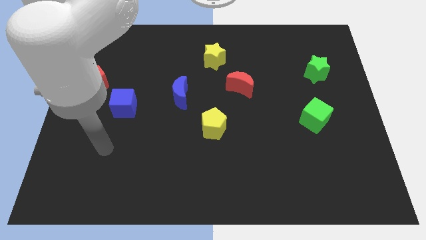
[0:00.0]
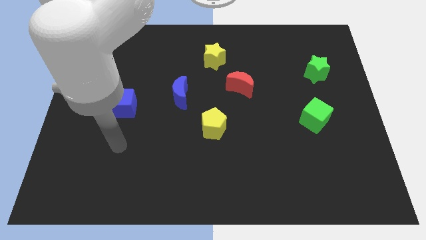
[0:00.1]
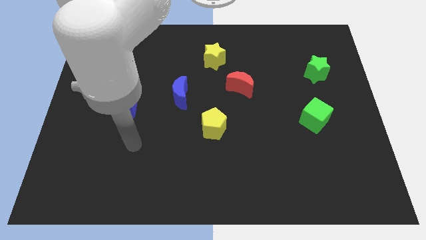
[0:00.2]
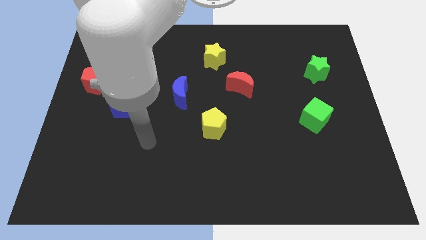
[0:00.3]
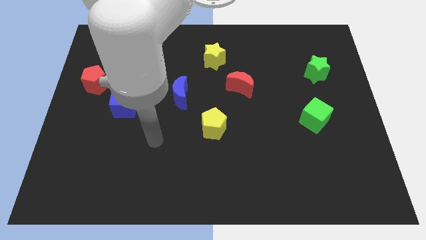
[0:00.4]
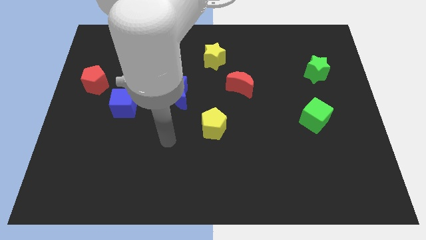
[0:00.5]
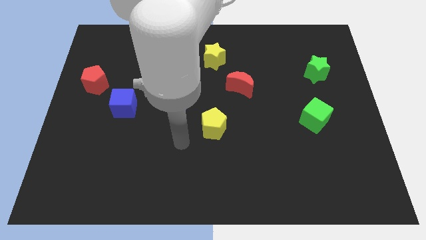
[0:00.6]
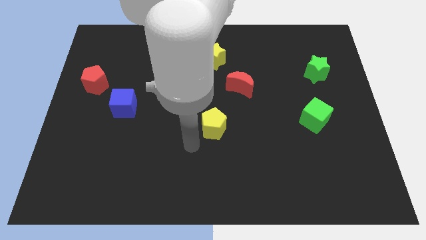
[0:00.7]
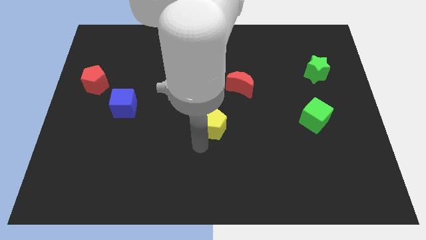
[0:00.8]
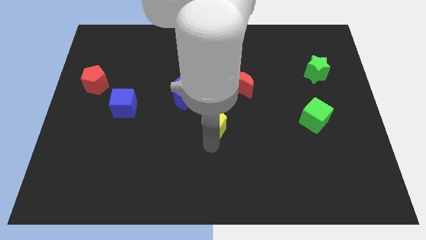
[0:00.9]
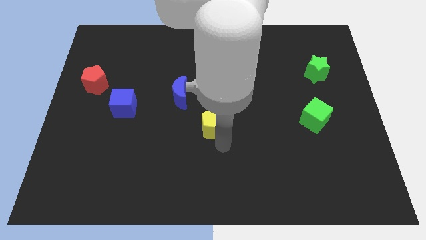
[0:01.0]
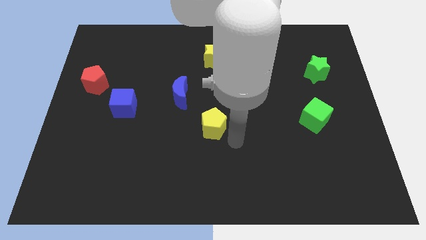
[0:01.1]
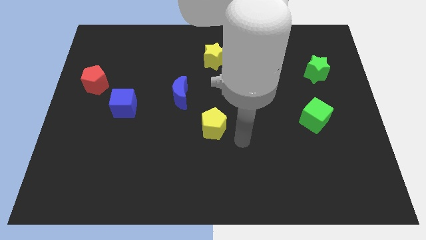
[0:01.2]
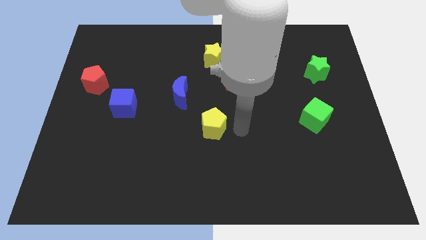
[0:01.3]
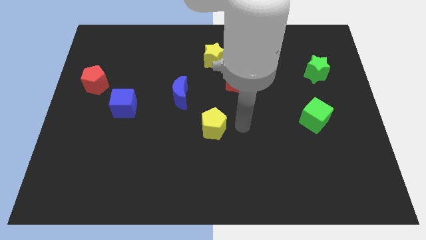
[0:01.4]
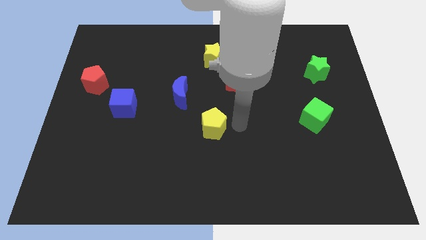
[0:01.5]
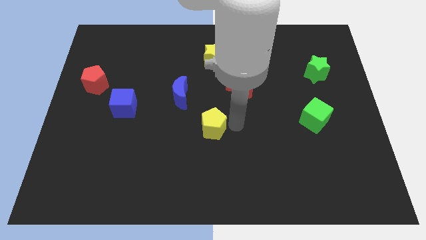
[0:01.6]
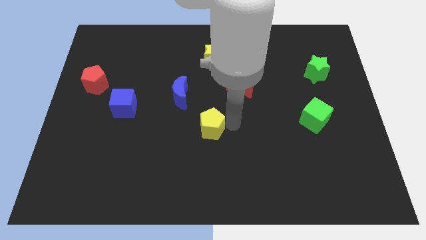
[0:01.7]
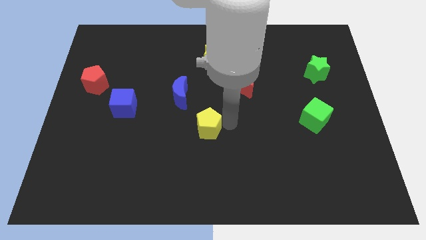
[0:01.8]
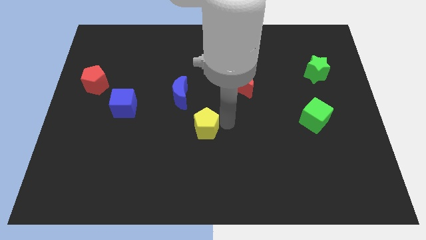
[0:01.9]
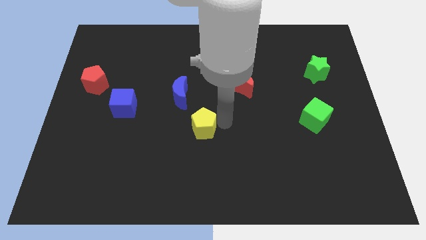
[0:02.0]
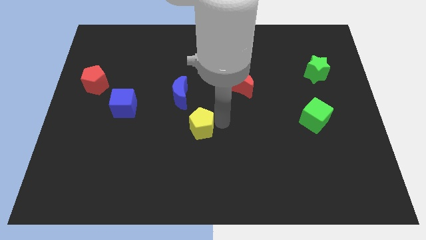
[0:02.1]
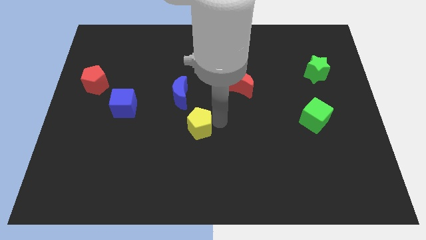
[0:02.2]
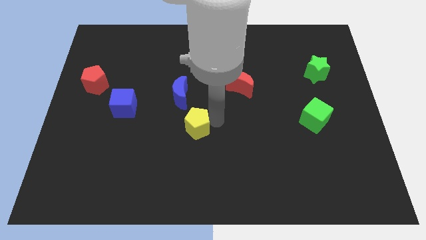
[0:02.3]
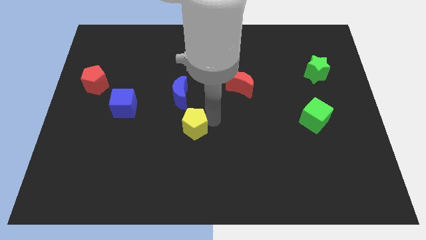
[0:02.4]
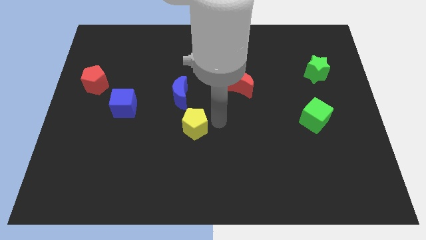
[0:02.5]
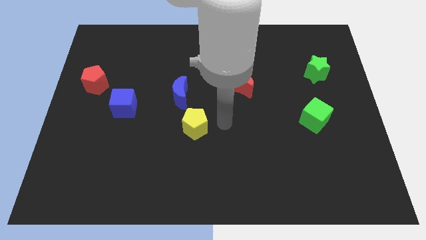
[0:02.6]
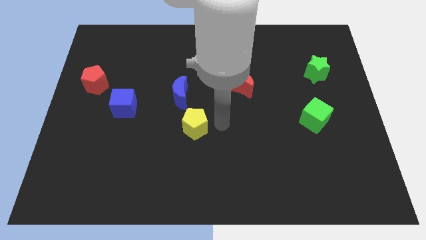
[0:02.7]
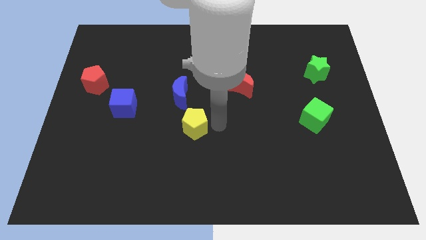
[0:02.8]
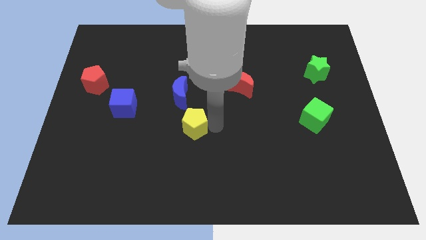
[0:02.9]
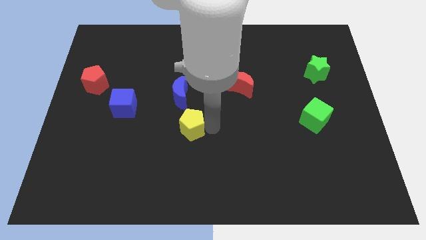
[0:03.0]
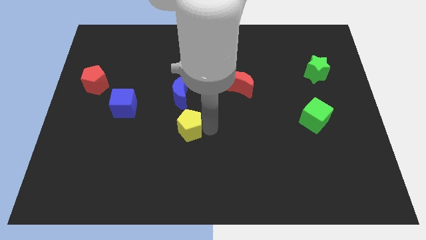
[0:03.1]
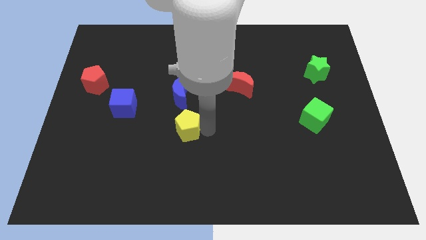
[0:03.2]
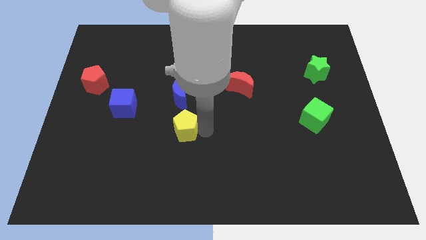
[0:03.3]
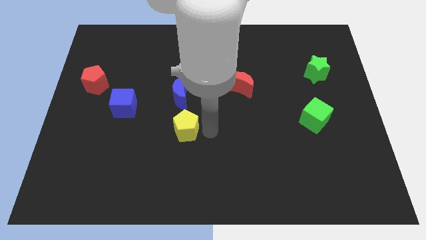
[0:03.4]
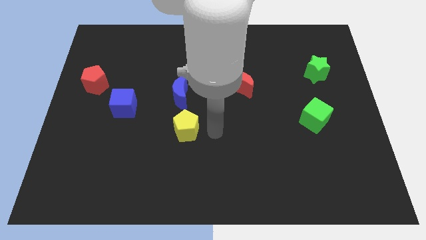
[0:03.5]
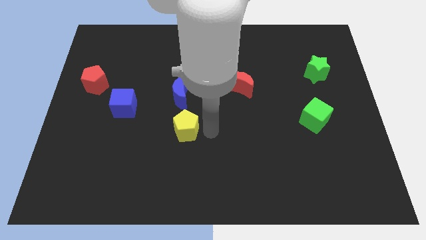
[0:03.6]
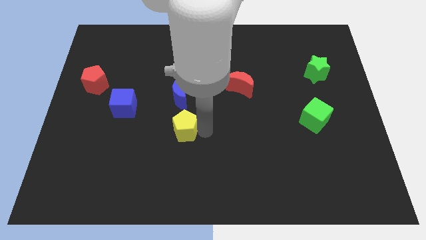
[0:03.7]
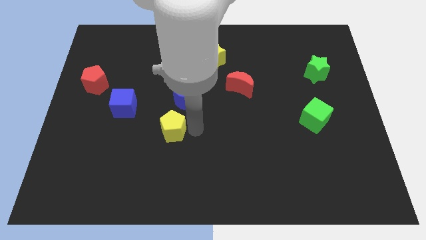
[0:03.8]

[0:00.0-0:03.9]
slide the yellow pentagon to the left somewhat

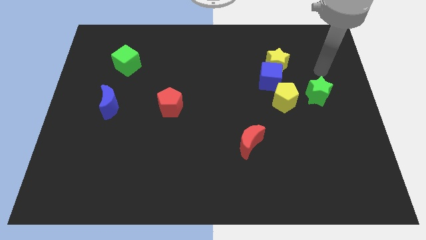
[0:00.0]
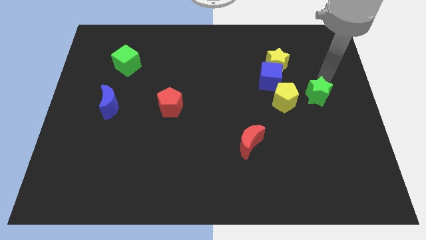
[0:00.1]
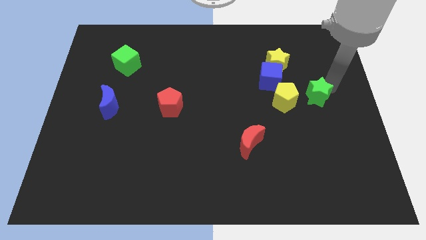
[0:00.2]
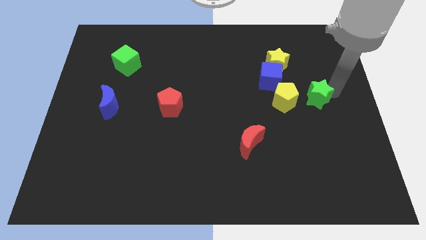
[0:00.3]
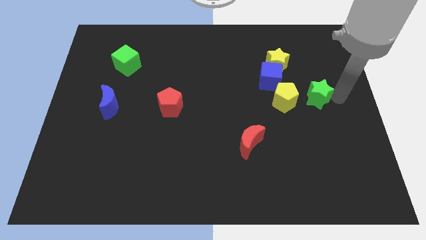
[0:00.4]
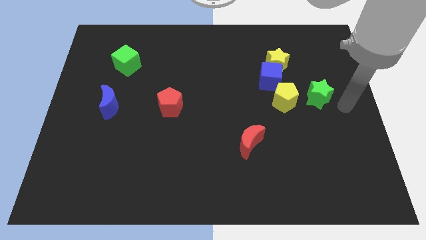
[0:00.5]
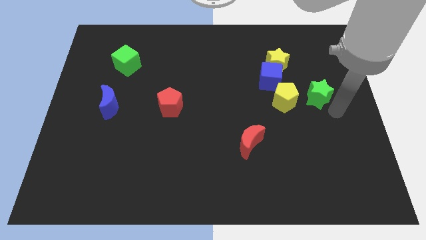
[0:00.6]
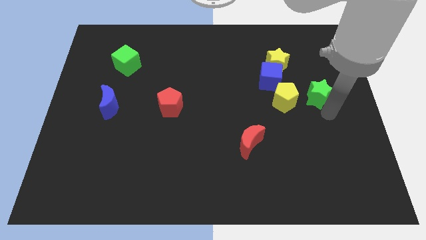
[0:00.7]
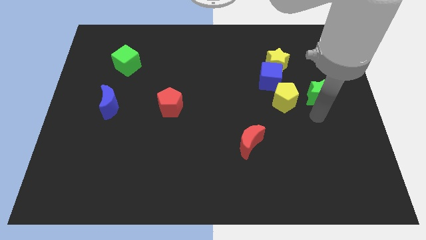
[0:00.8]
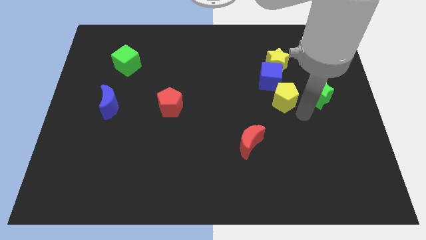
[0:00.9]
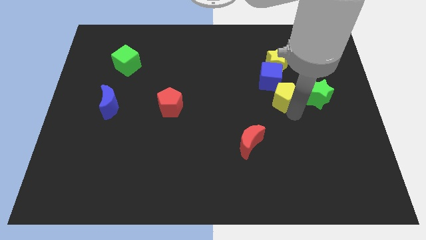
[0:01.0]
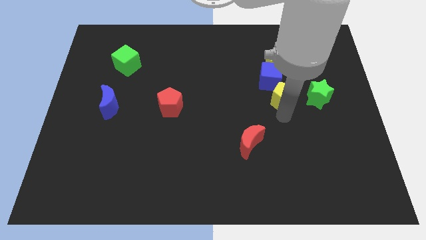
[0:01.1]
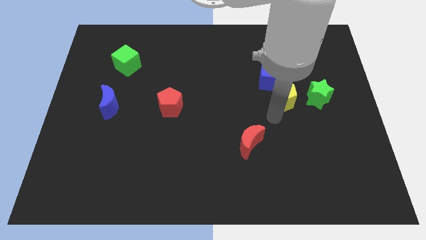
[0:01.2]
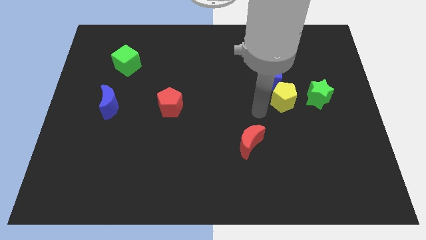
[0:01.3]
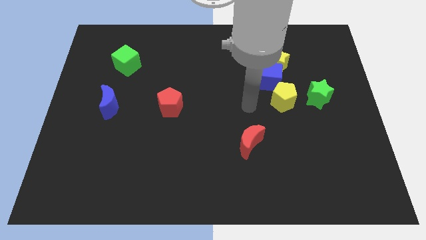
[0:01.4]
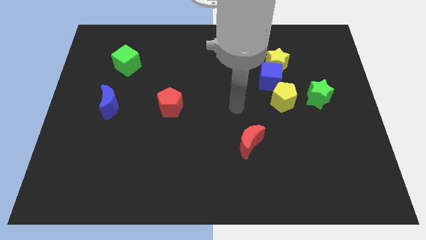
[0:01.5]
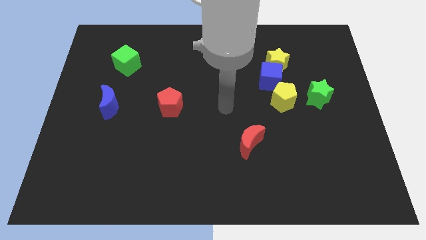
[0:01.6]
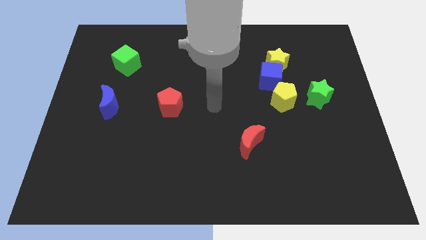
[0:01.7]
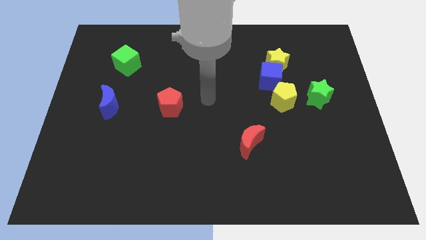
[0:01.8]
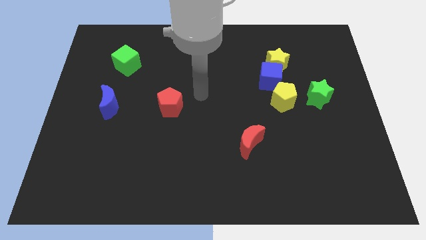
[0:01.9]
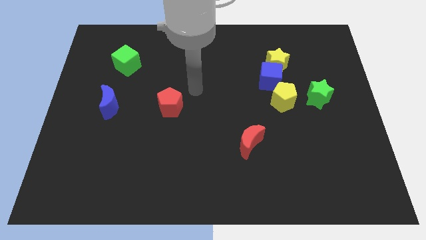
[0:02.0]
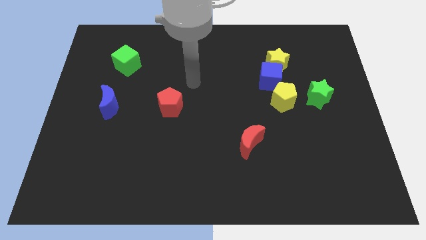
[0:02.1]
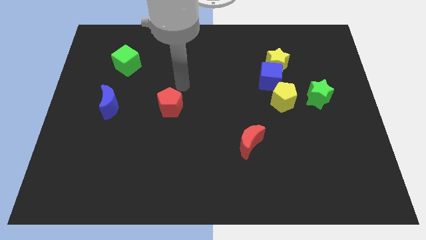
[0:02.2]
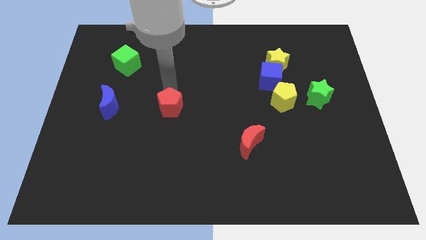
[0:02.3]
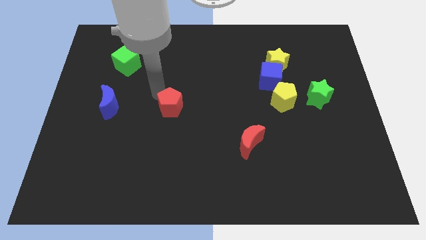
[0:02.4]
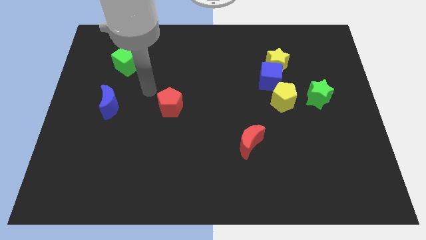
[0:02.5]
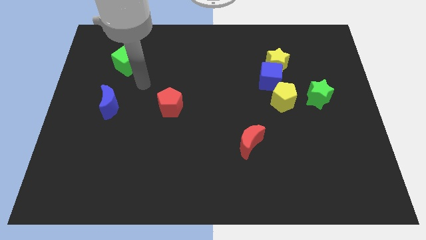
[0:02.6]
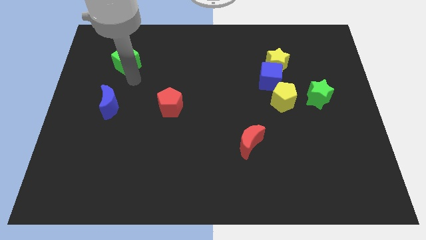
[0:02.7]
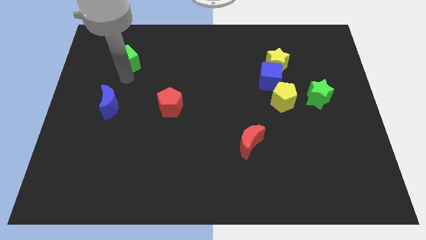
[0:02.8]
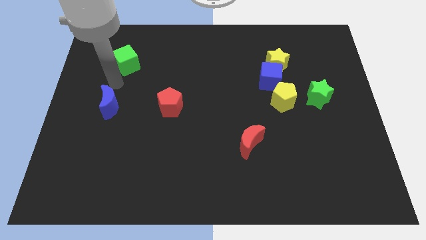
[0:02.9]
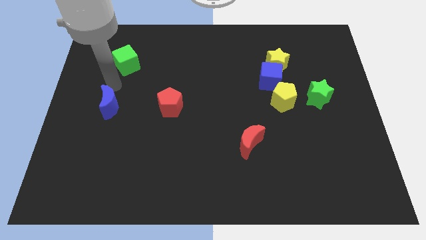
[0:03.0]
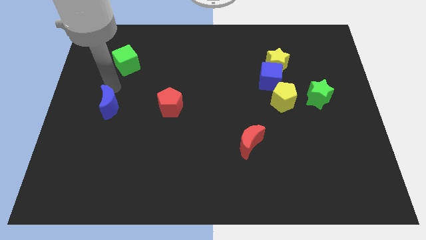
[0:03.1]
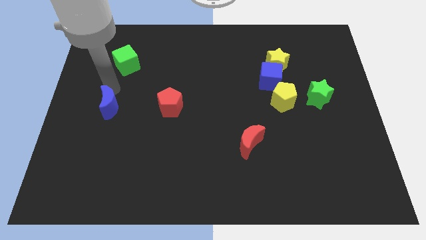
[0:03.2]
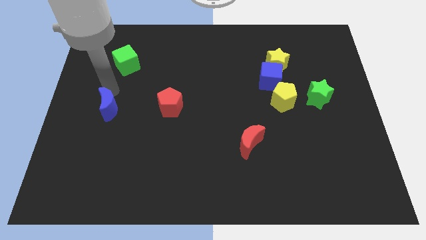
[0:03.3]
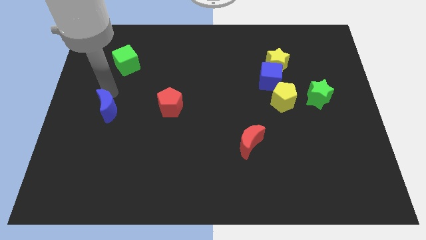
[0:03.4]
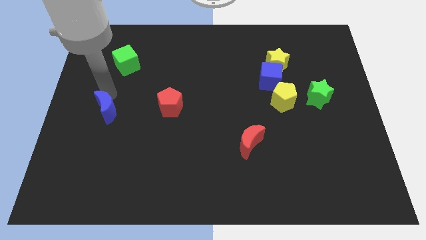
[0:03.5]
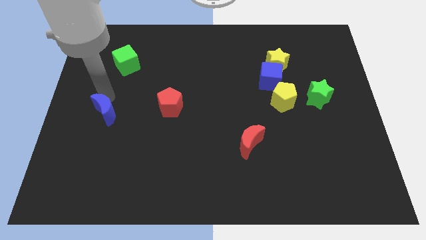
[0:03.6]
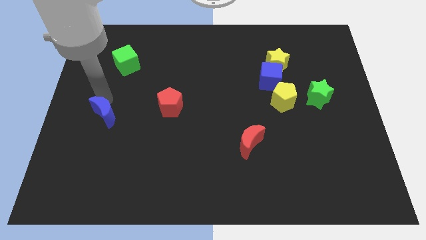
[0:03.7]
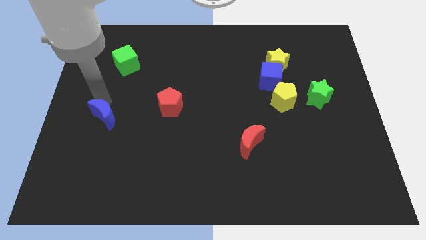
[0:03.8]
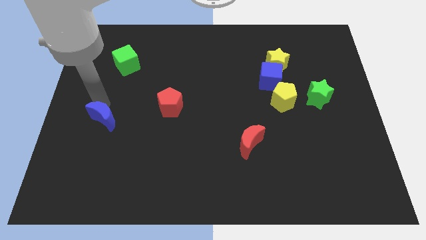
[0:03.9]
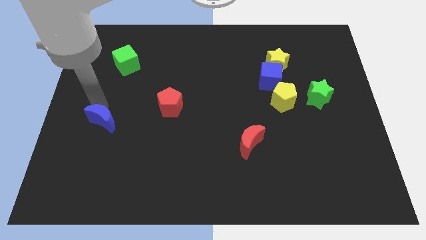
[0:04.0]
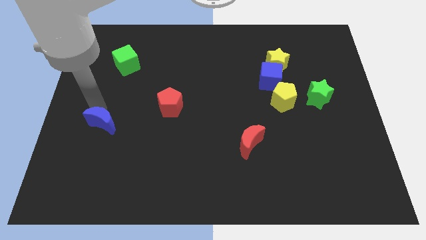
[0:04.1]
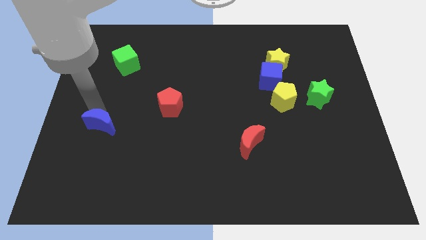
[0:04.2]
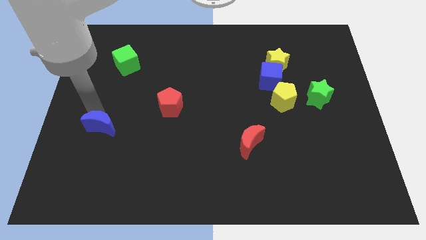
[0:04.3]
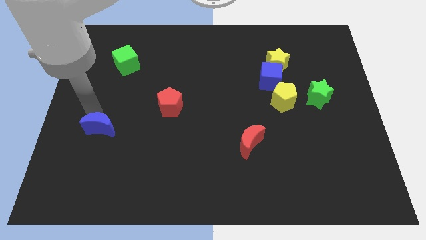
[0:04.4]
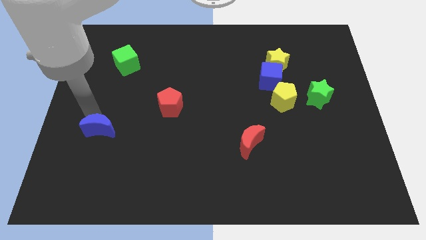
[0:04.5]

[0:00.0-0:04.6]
push the blue moon downwards a little
